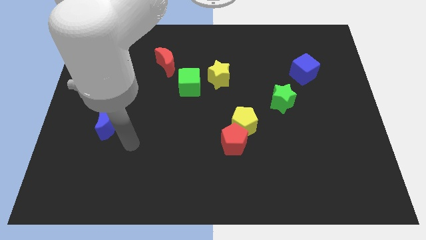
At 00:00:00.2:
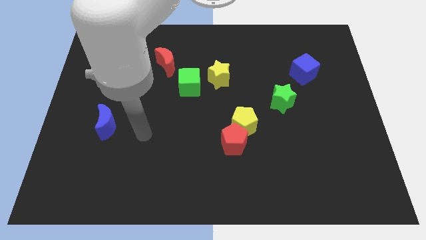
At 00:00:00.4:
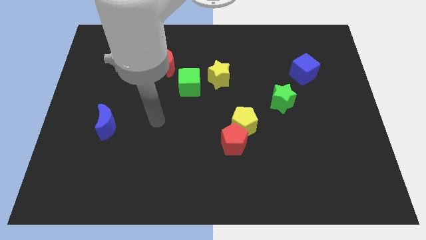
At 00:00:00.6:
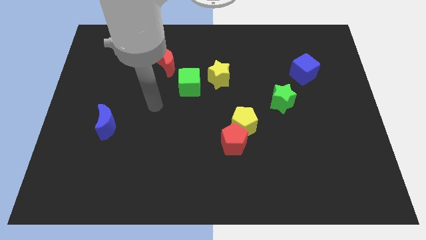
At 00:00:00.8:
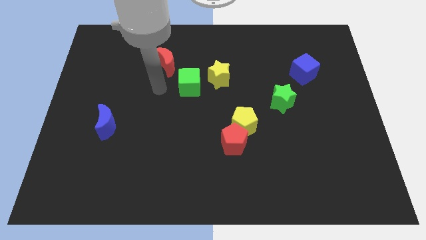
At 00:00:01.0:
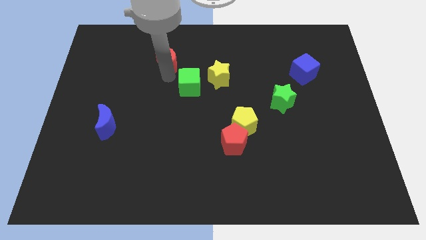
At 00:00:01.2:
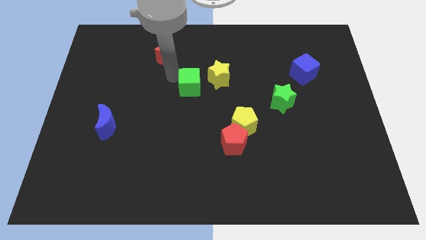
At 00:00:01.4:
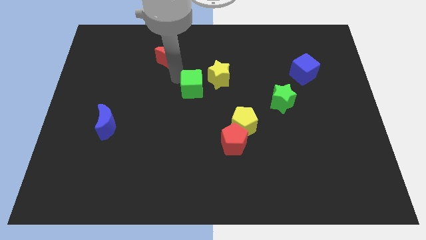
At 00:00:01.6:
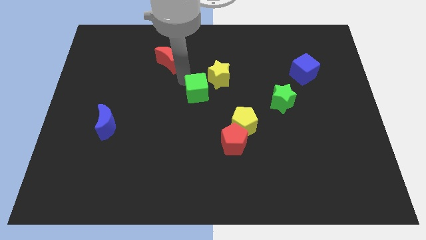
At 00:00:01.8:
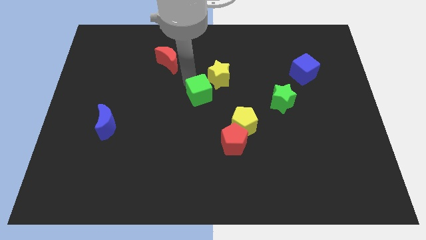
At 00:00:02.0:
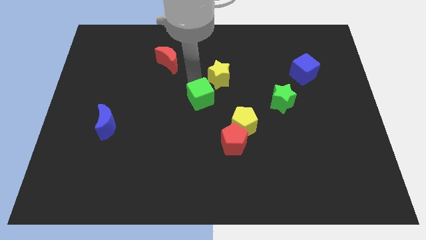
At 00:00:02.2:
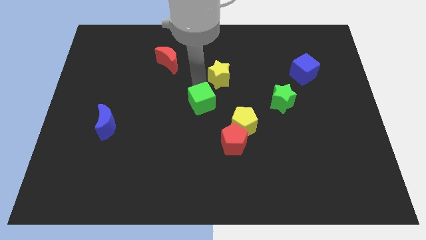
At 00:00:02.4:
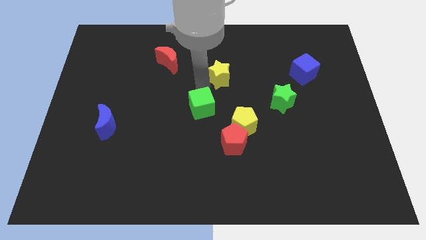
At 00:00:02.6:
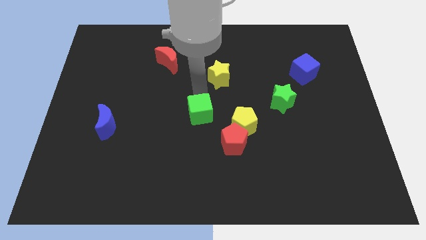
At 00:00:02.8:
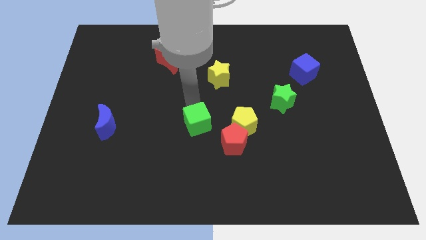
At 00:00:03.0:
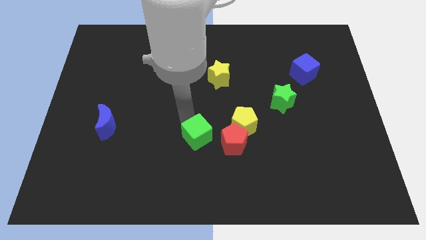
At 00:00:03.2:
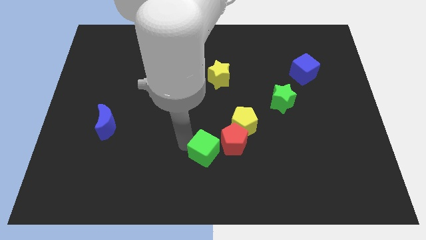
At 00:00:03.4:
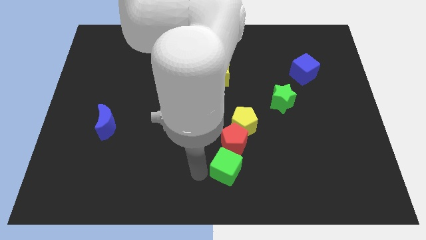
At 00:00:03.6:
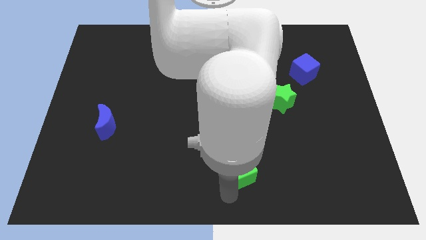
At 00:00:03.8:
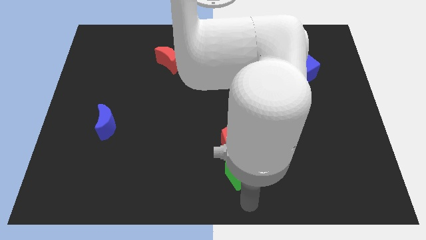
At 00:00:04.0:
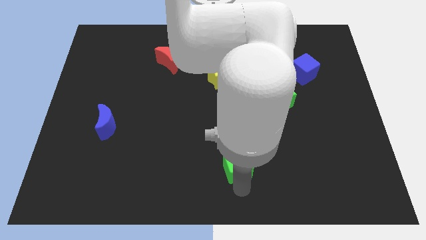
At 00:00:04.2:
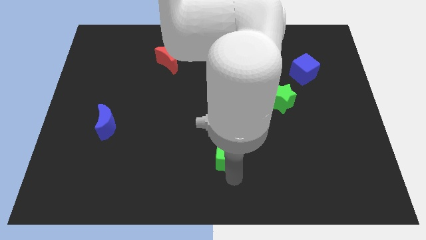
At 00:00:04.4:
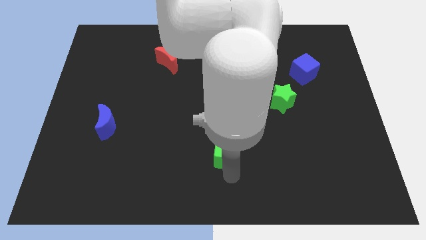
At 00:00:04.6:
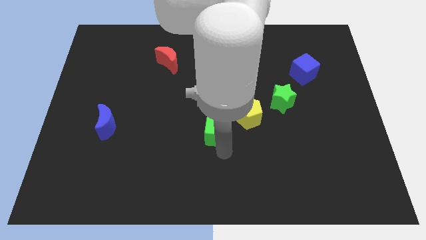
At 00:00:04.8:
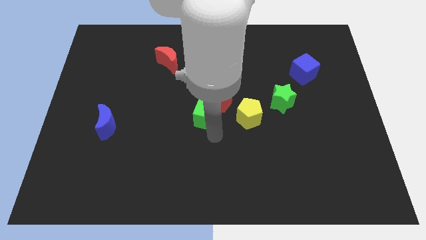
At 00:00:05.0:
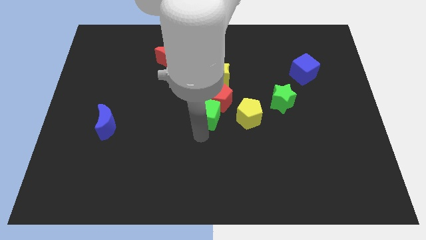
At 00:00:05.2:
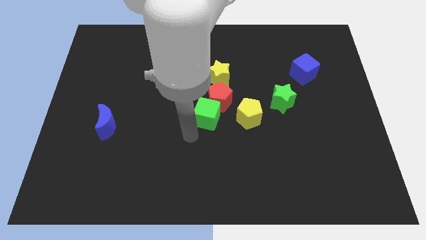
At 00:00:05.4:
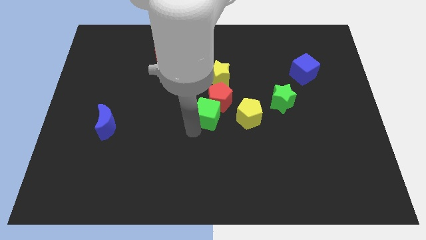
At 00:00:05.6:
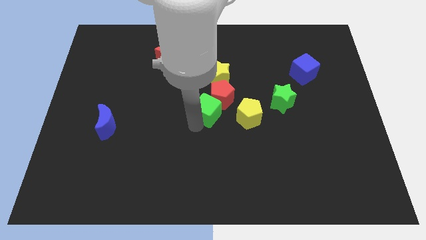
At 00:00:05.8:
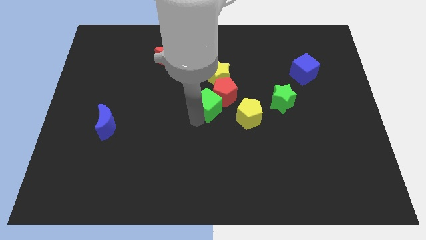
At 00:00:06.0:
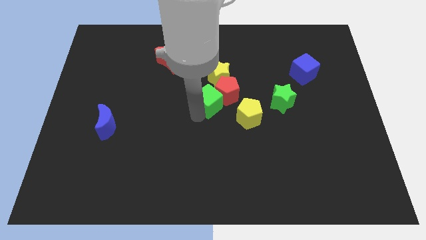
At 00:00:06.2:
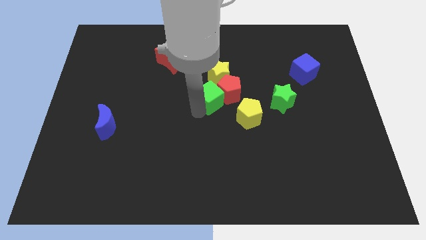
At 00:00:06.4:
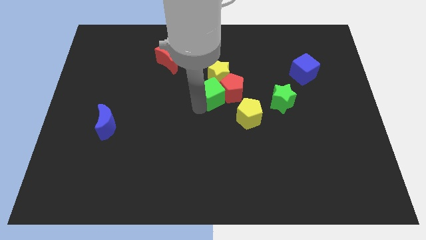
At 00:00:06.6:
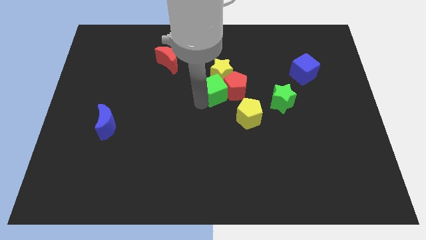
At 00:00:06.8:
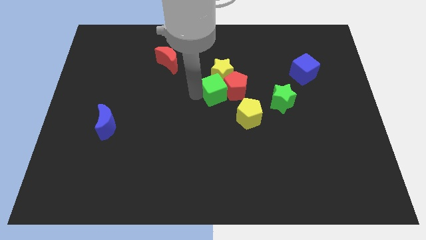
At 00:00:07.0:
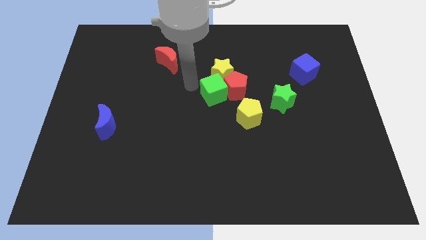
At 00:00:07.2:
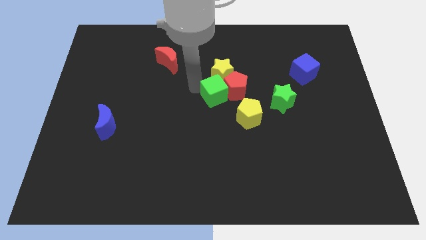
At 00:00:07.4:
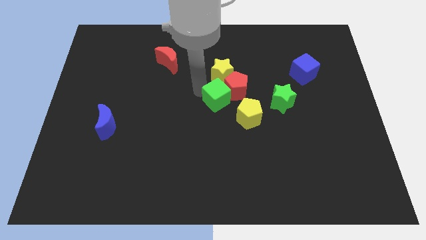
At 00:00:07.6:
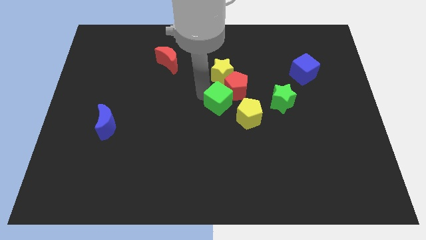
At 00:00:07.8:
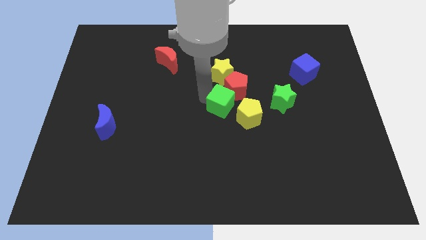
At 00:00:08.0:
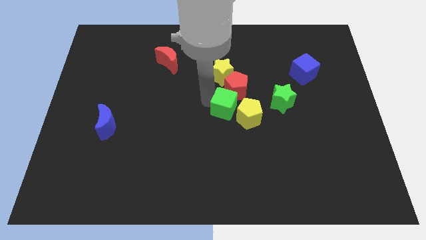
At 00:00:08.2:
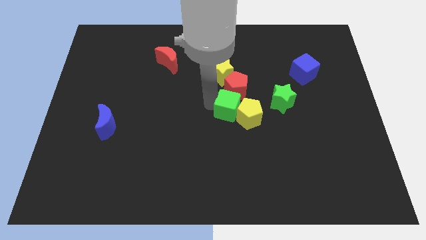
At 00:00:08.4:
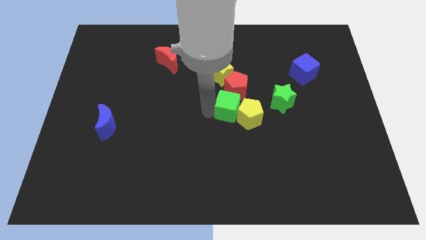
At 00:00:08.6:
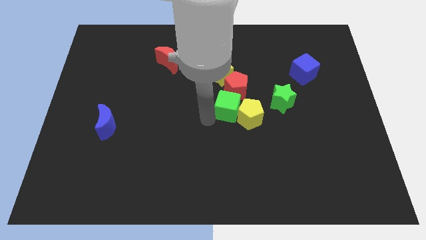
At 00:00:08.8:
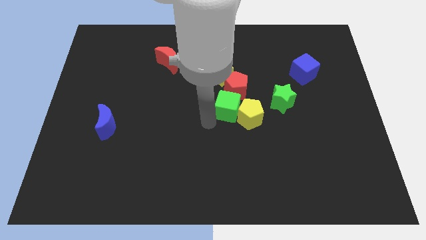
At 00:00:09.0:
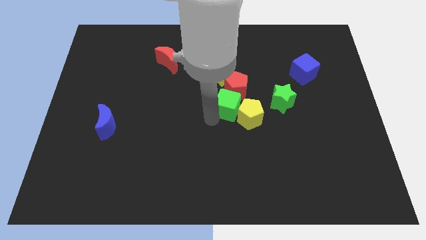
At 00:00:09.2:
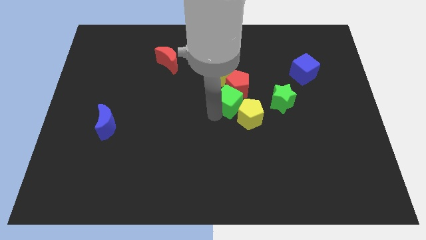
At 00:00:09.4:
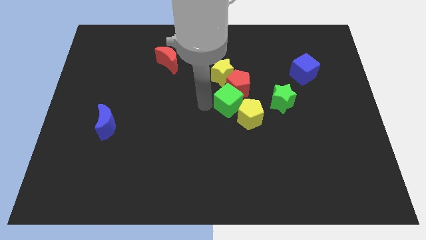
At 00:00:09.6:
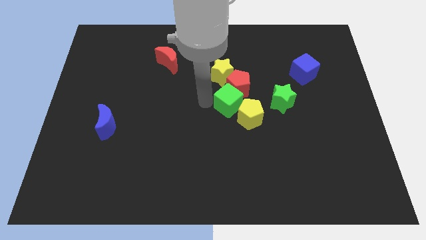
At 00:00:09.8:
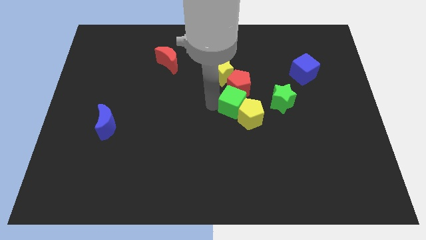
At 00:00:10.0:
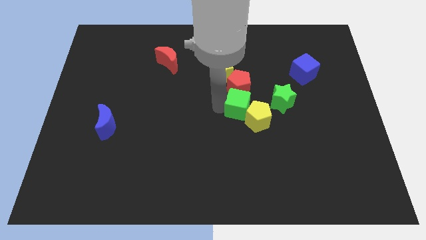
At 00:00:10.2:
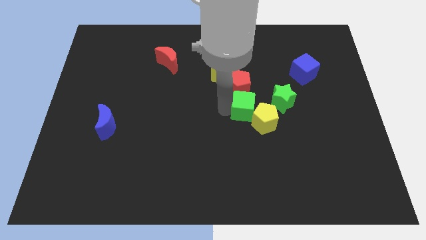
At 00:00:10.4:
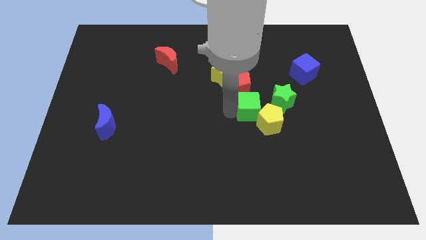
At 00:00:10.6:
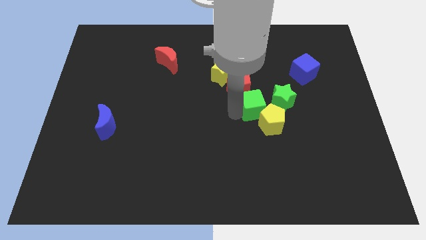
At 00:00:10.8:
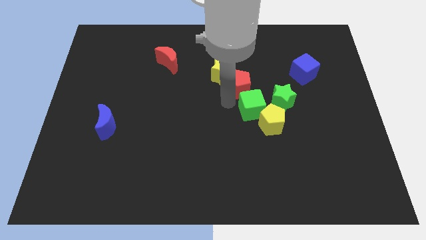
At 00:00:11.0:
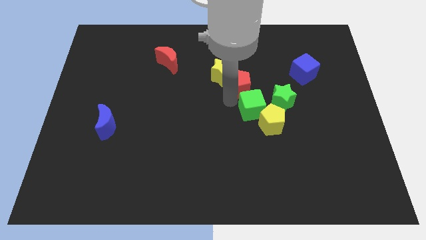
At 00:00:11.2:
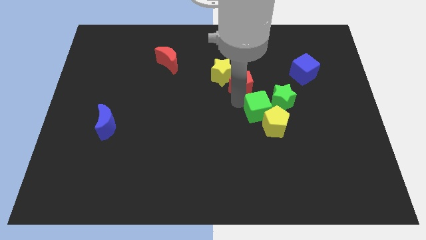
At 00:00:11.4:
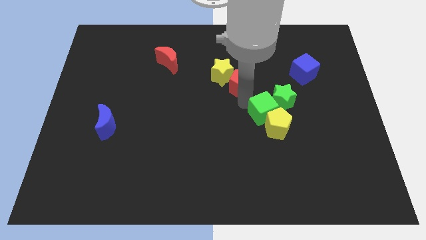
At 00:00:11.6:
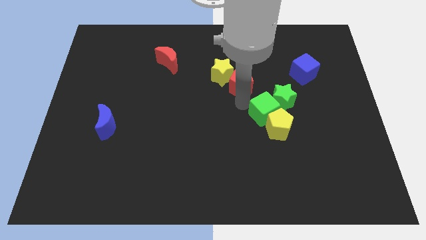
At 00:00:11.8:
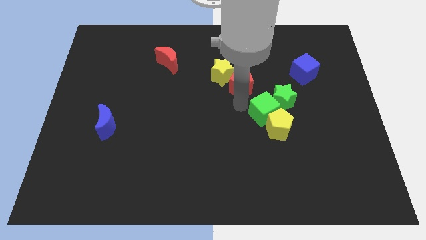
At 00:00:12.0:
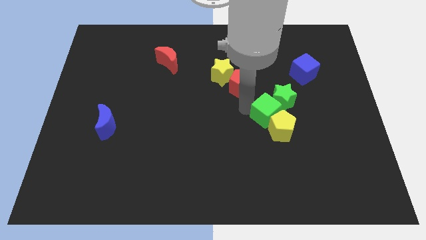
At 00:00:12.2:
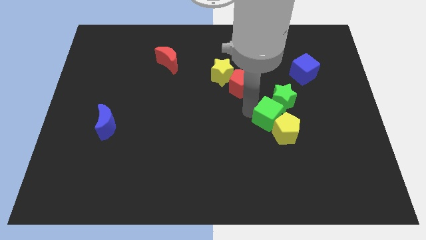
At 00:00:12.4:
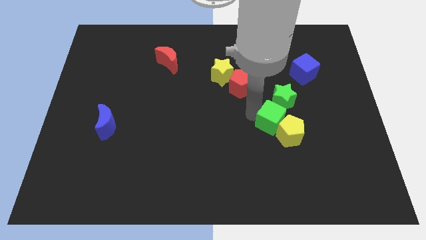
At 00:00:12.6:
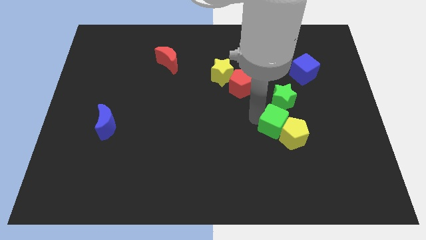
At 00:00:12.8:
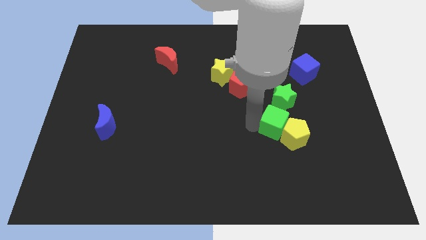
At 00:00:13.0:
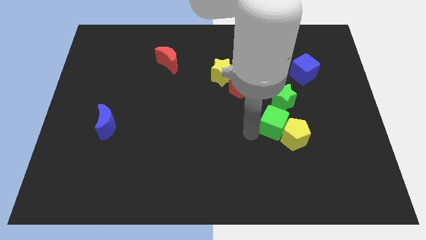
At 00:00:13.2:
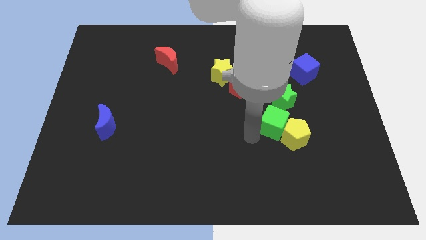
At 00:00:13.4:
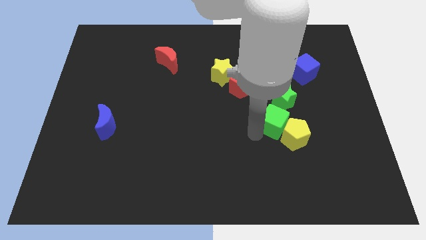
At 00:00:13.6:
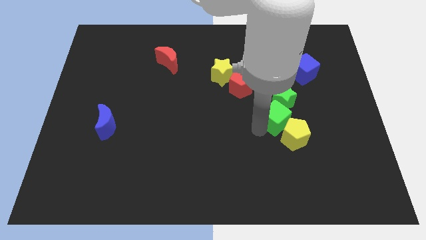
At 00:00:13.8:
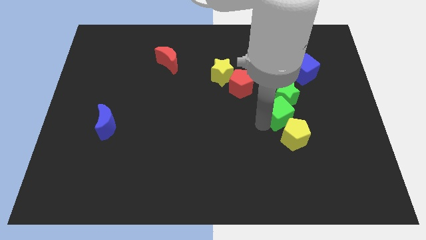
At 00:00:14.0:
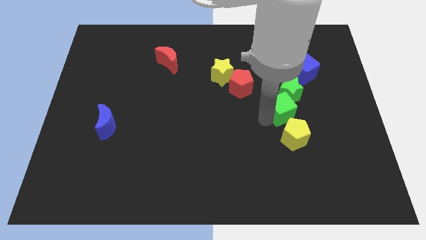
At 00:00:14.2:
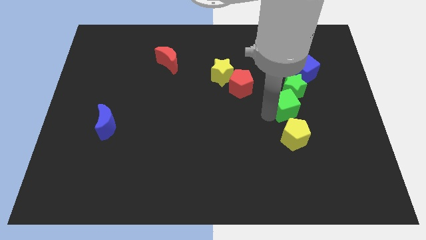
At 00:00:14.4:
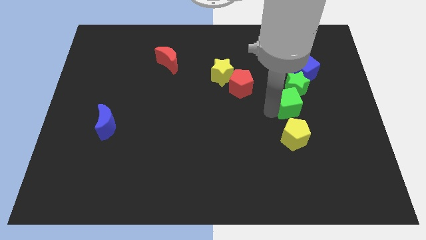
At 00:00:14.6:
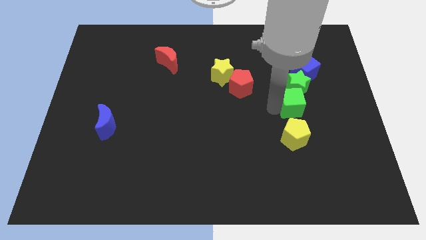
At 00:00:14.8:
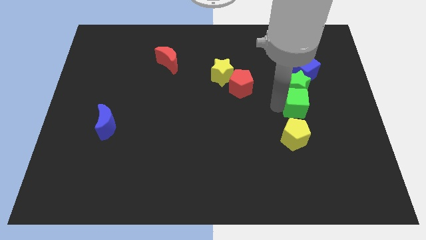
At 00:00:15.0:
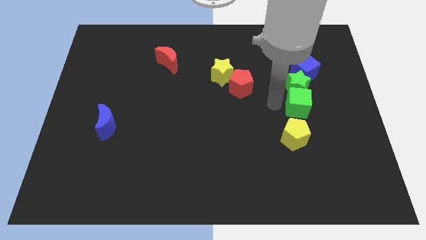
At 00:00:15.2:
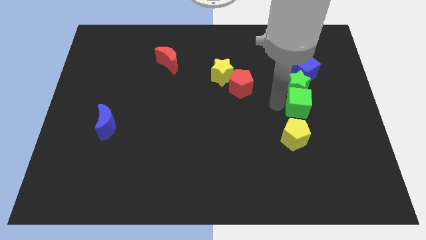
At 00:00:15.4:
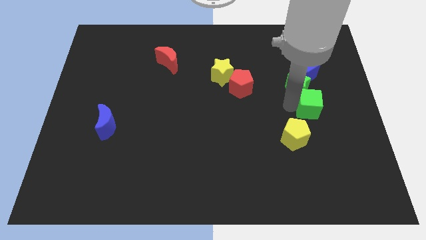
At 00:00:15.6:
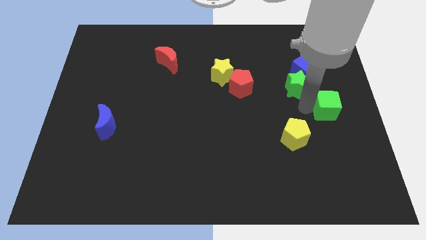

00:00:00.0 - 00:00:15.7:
put the green cube to the right side of the board
